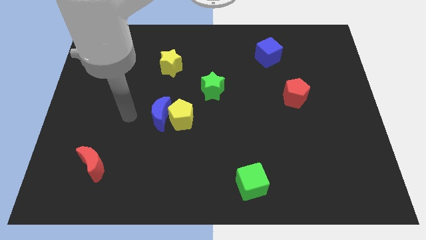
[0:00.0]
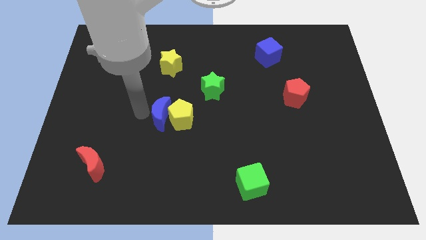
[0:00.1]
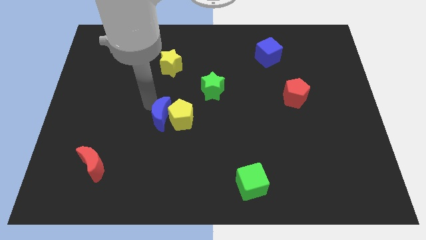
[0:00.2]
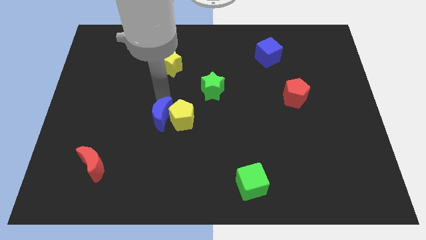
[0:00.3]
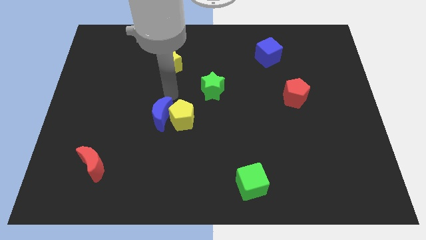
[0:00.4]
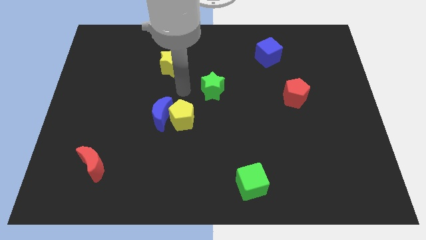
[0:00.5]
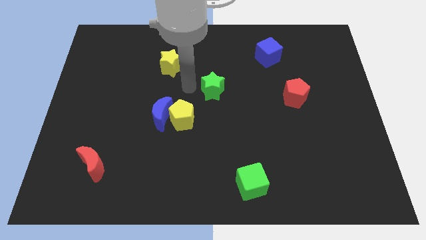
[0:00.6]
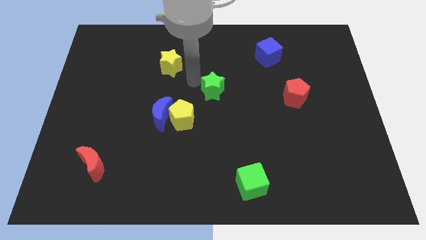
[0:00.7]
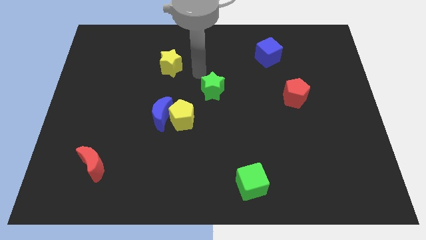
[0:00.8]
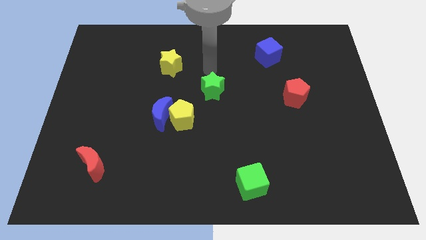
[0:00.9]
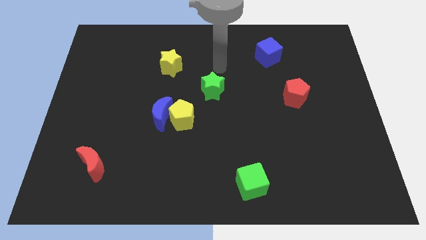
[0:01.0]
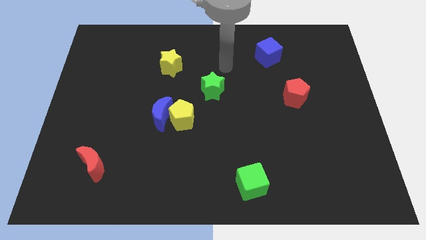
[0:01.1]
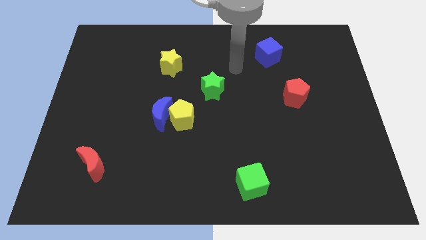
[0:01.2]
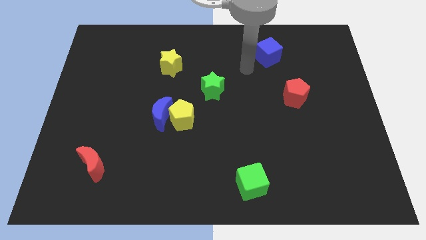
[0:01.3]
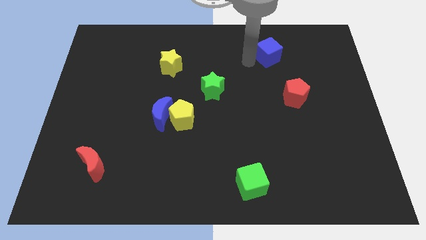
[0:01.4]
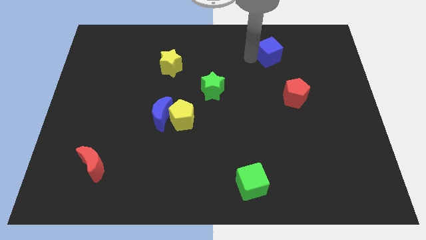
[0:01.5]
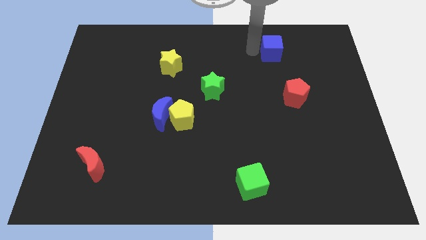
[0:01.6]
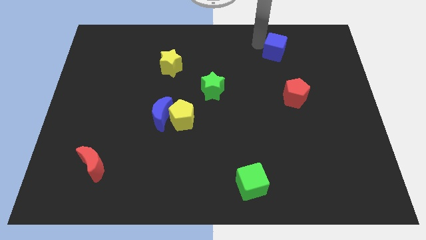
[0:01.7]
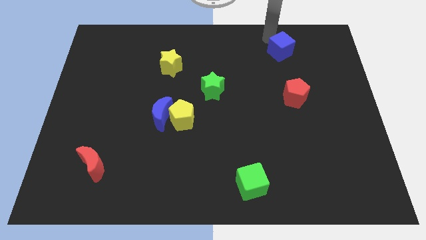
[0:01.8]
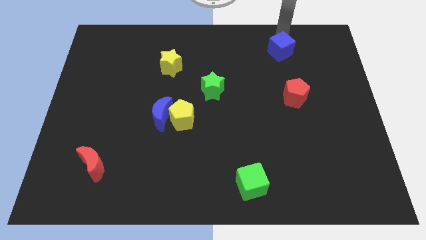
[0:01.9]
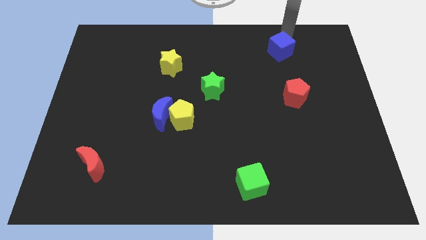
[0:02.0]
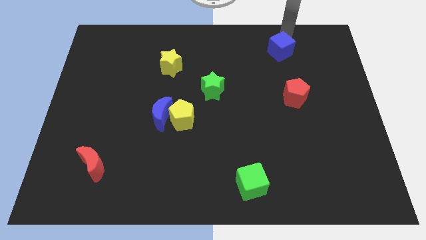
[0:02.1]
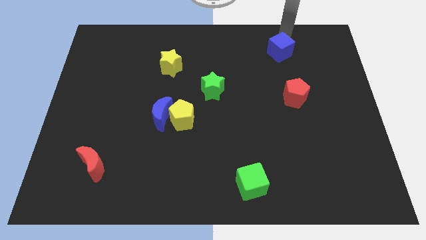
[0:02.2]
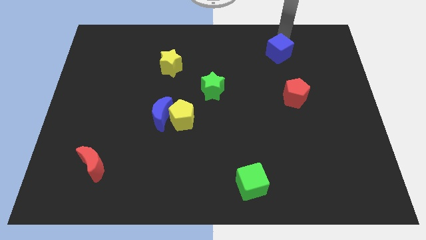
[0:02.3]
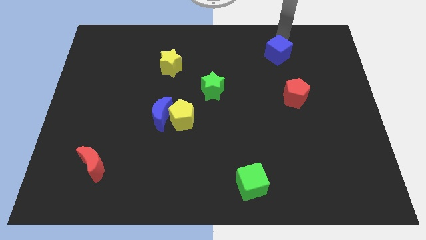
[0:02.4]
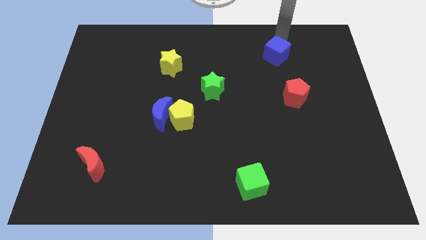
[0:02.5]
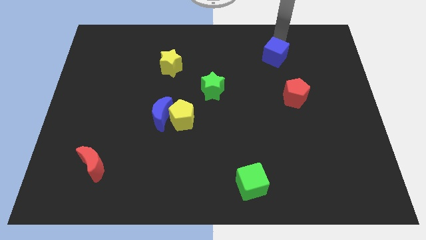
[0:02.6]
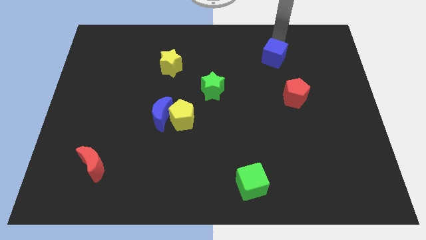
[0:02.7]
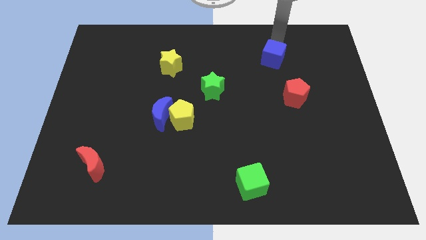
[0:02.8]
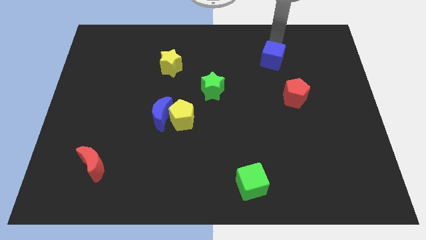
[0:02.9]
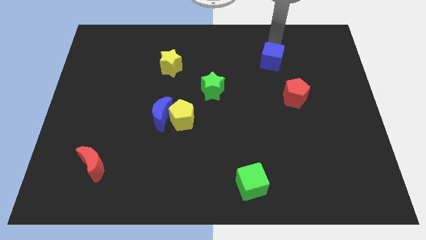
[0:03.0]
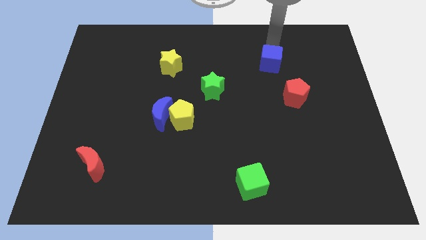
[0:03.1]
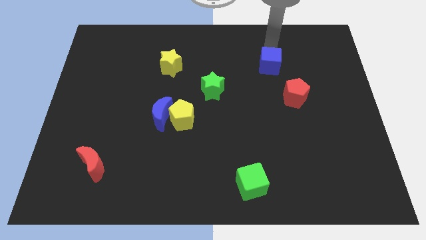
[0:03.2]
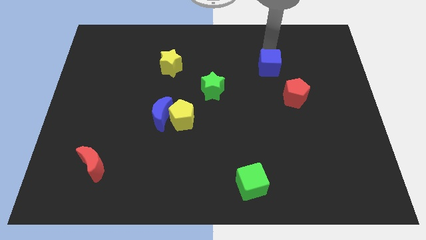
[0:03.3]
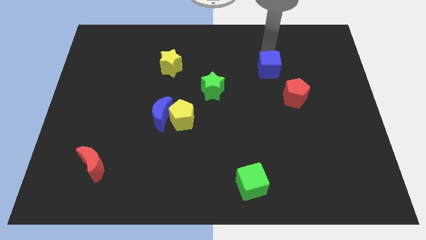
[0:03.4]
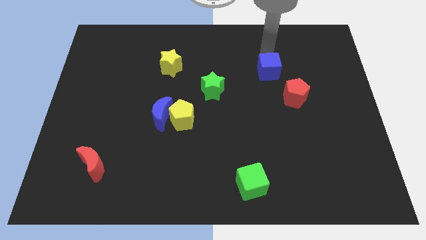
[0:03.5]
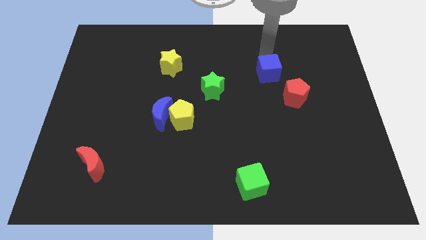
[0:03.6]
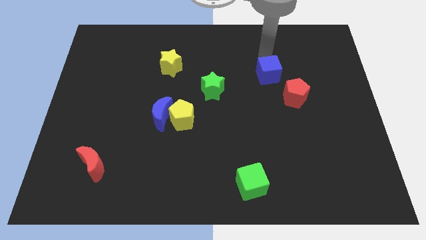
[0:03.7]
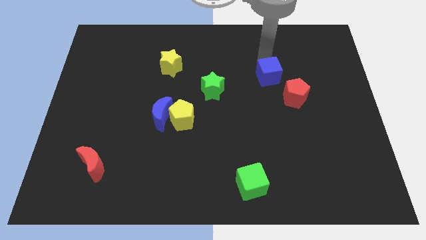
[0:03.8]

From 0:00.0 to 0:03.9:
slightly move the blue cube down

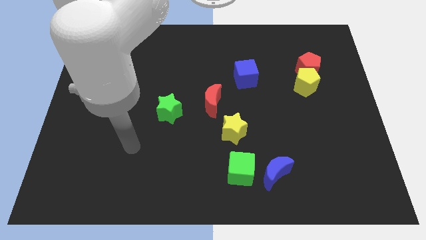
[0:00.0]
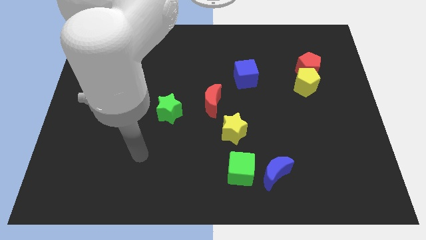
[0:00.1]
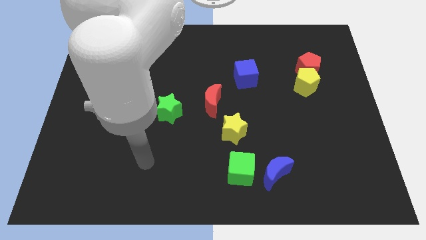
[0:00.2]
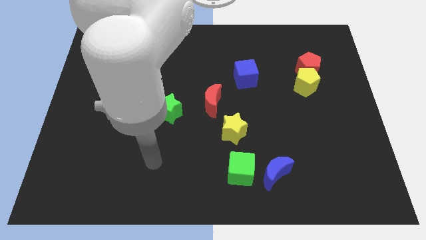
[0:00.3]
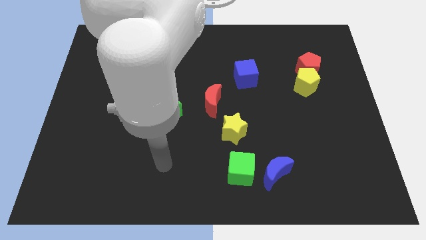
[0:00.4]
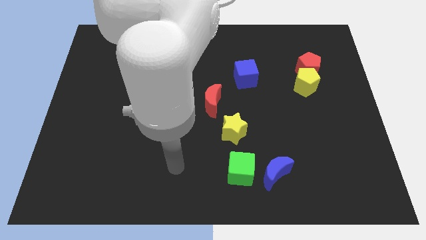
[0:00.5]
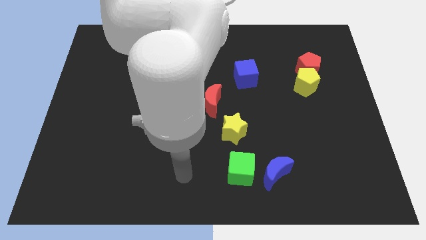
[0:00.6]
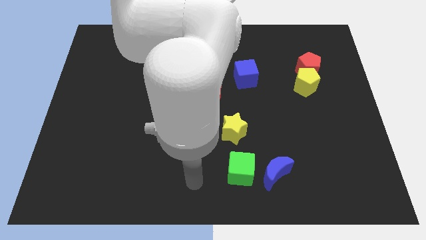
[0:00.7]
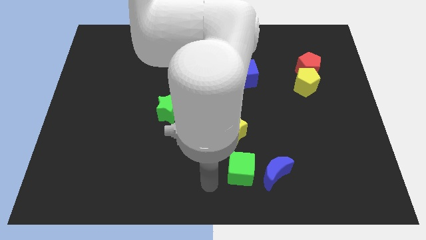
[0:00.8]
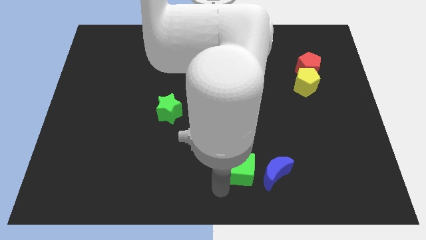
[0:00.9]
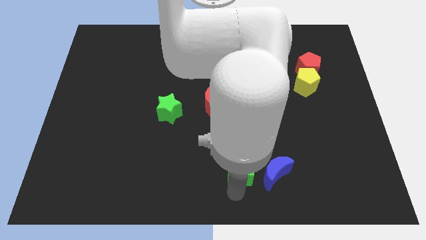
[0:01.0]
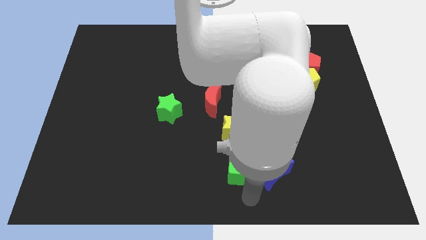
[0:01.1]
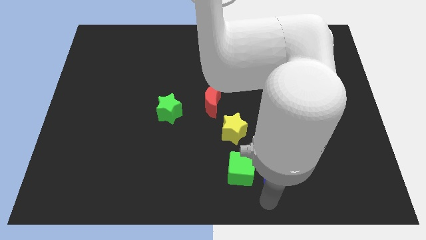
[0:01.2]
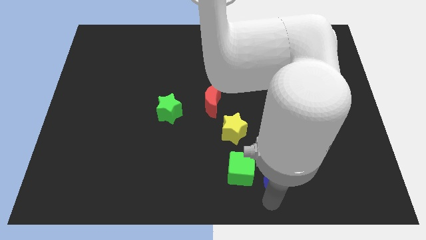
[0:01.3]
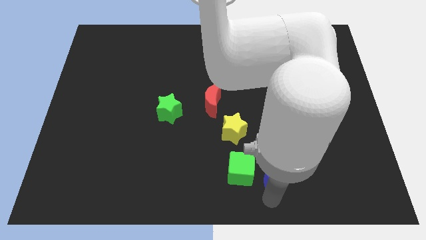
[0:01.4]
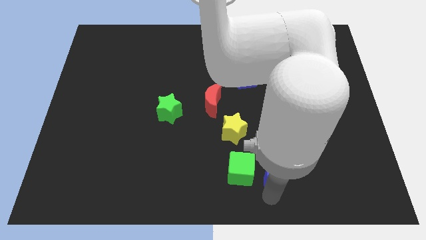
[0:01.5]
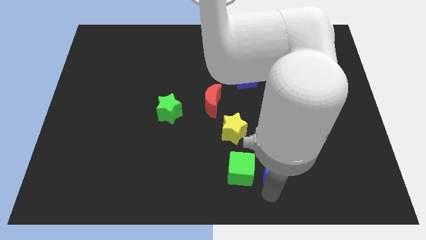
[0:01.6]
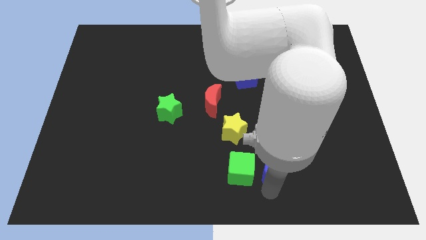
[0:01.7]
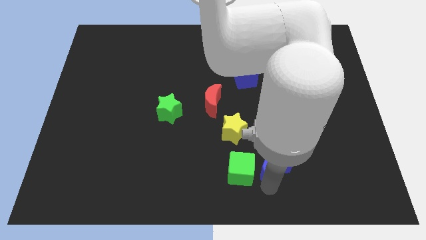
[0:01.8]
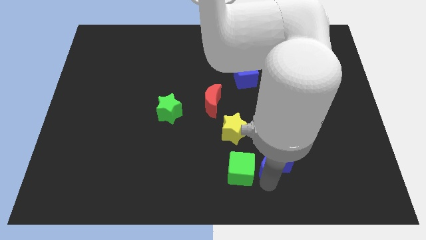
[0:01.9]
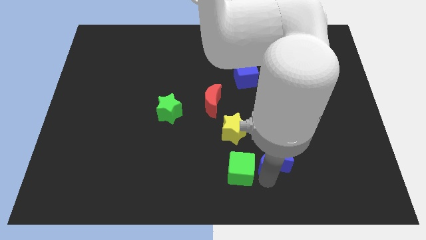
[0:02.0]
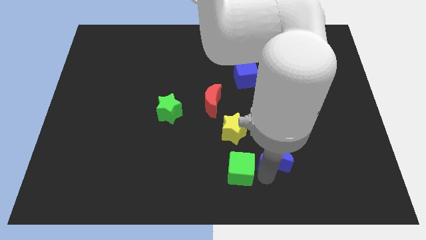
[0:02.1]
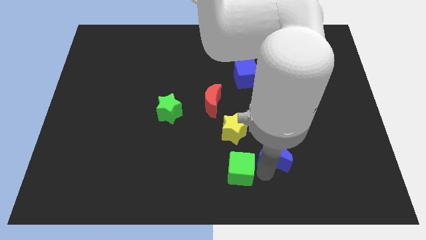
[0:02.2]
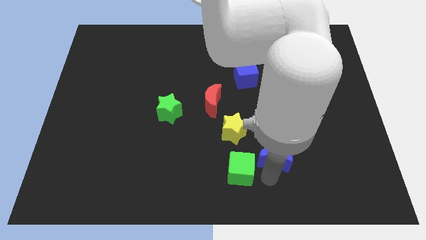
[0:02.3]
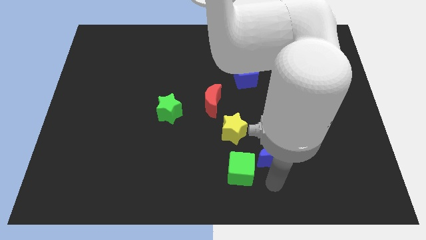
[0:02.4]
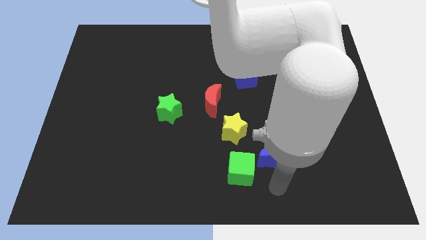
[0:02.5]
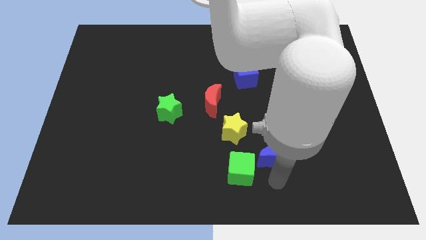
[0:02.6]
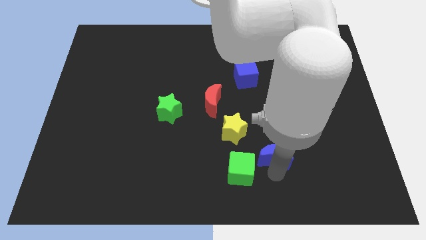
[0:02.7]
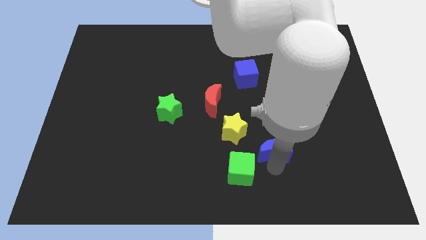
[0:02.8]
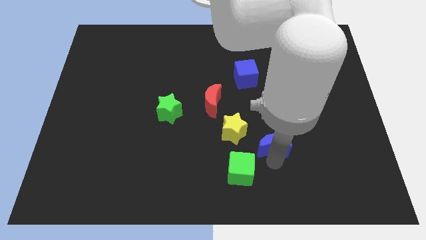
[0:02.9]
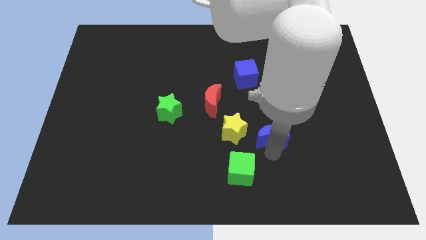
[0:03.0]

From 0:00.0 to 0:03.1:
move the blue moon a bit up

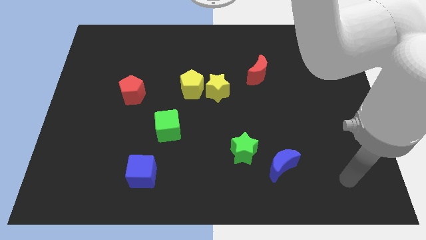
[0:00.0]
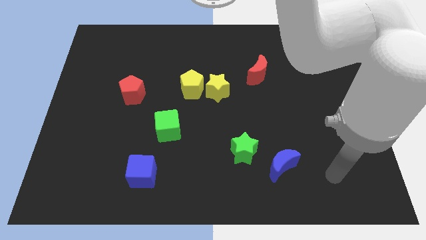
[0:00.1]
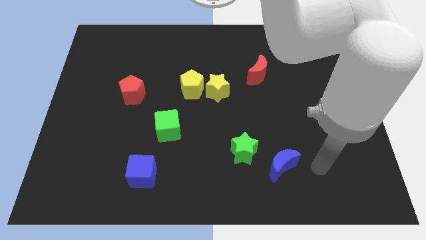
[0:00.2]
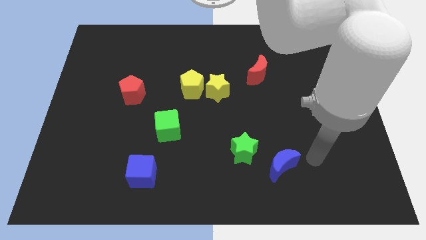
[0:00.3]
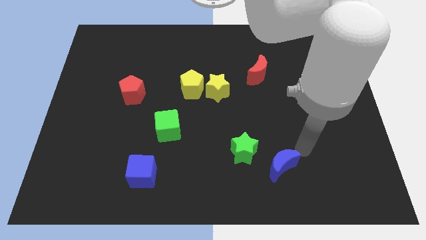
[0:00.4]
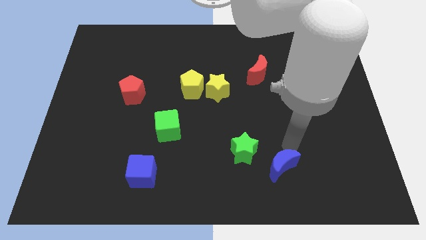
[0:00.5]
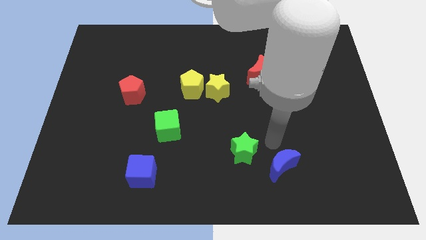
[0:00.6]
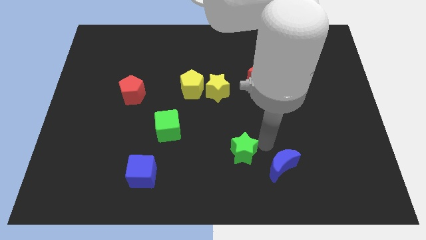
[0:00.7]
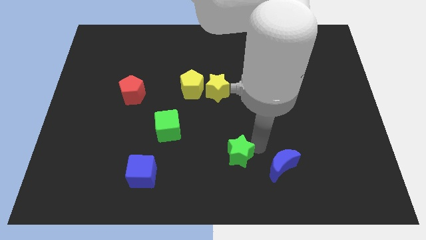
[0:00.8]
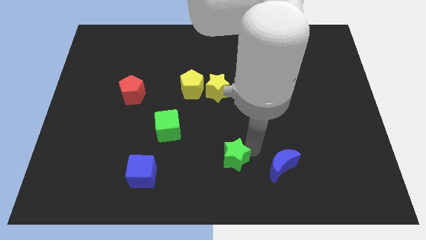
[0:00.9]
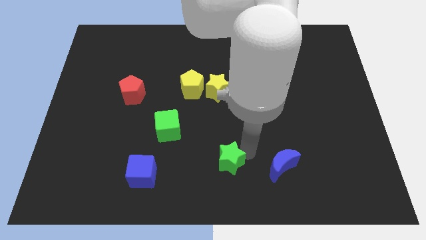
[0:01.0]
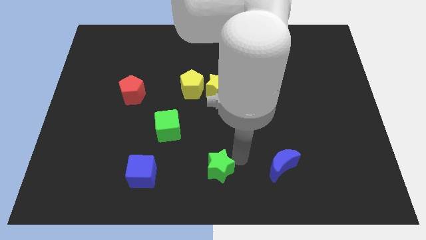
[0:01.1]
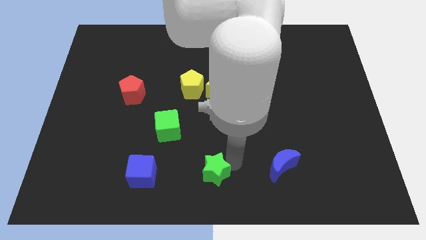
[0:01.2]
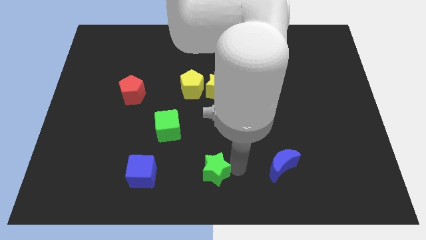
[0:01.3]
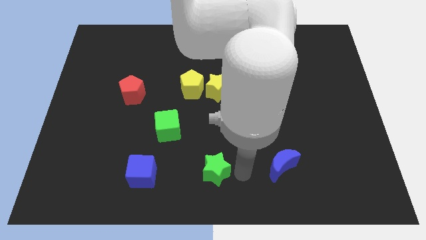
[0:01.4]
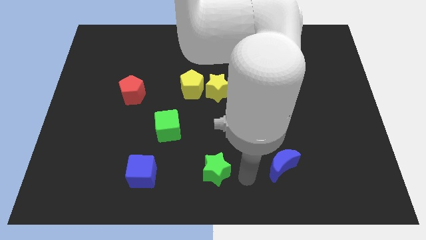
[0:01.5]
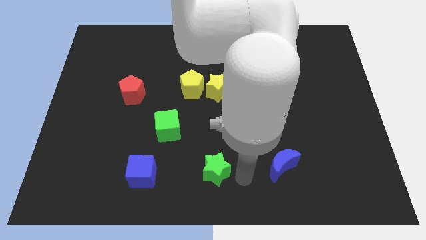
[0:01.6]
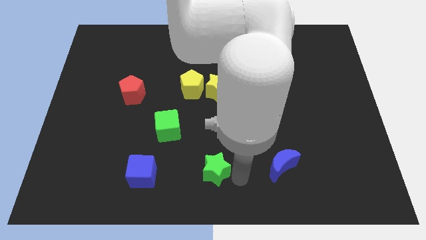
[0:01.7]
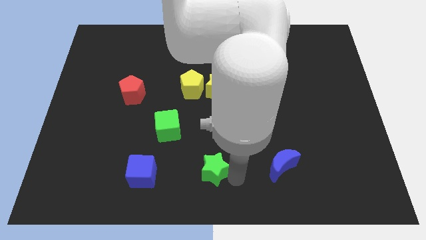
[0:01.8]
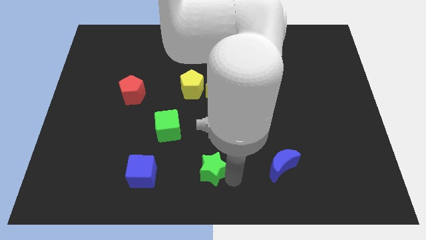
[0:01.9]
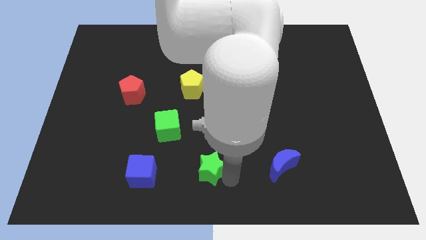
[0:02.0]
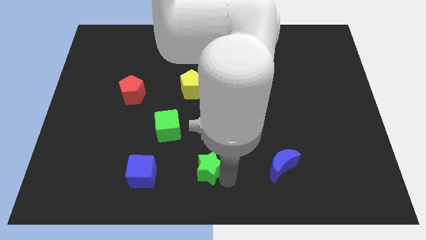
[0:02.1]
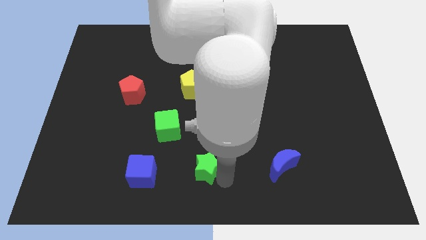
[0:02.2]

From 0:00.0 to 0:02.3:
push the green star a bit left
